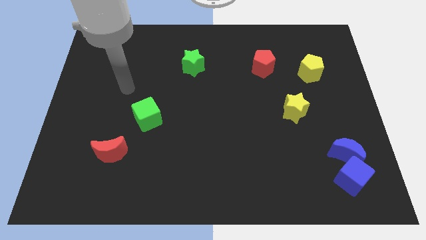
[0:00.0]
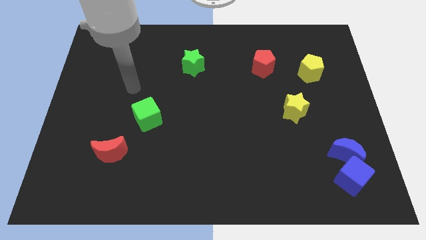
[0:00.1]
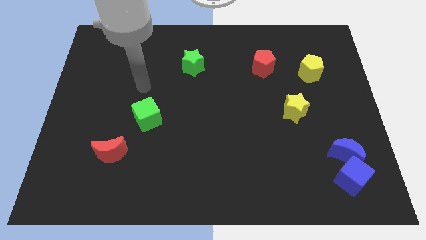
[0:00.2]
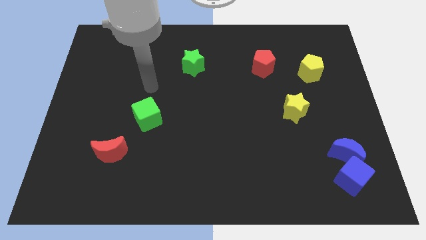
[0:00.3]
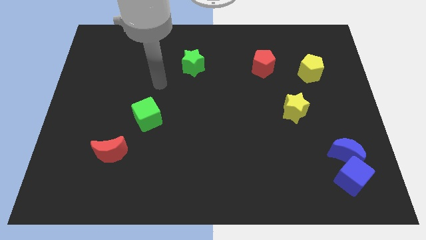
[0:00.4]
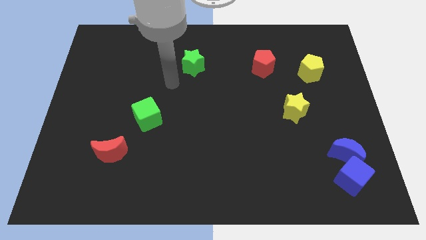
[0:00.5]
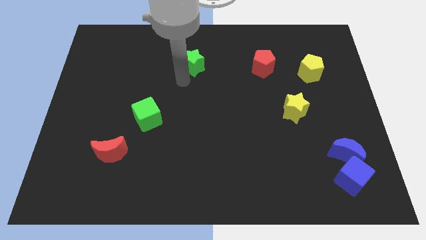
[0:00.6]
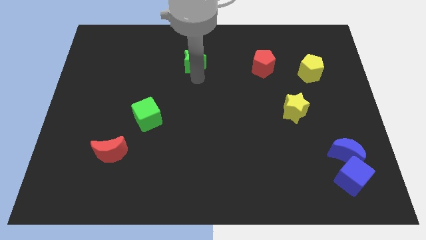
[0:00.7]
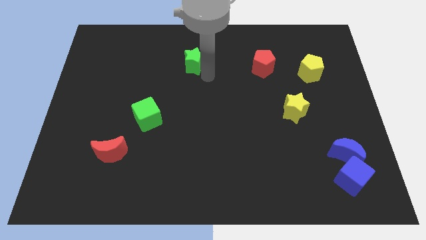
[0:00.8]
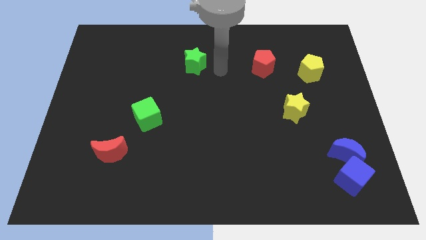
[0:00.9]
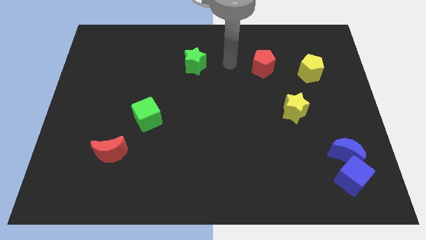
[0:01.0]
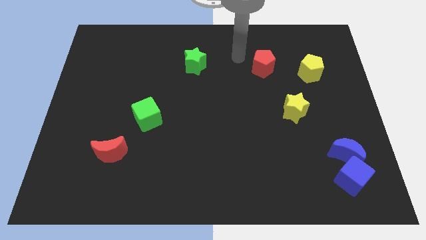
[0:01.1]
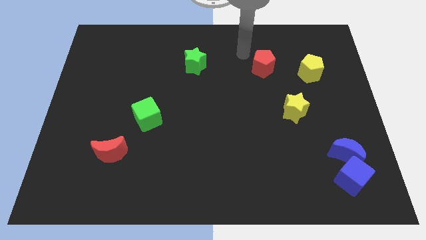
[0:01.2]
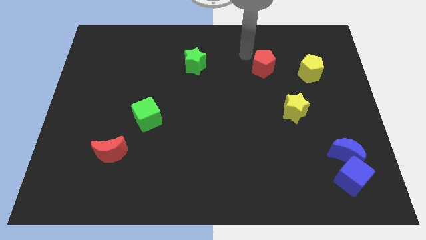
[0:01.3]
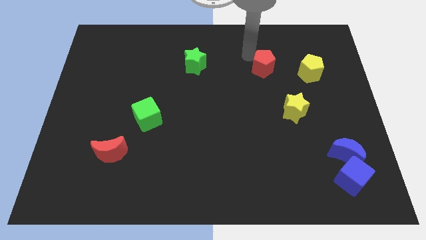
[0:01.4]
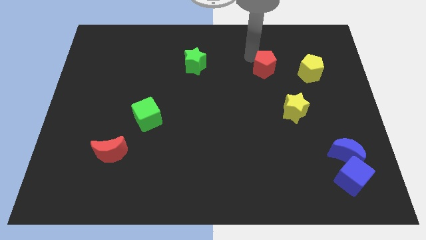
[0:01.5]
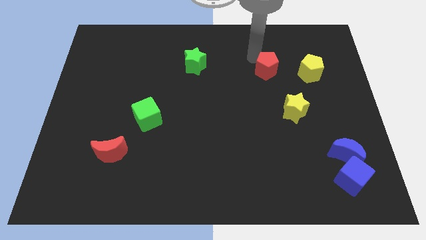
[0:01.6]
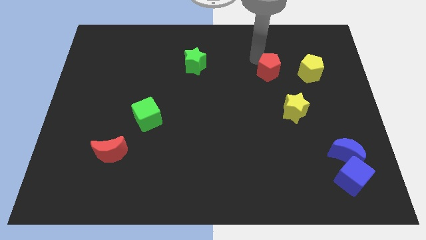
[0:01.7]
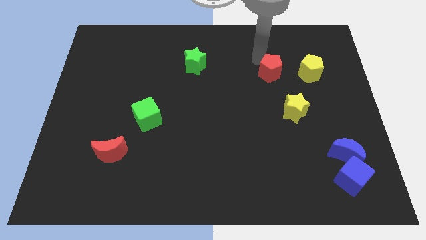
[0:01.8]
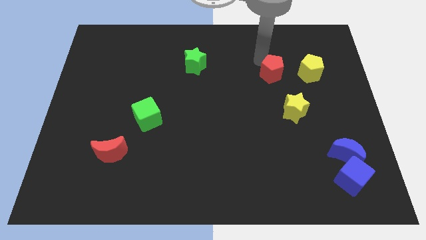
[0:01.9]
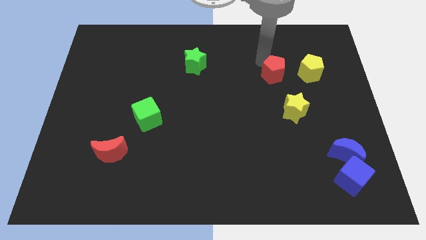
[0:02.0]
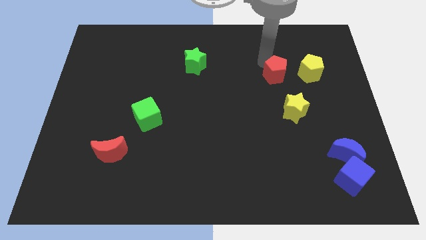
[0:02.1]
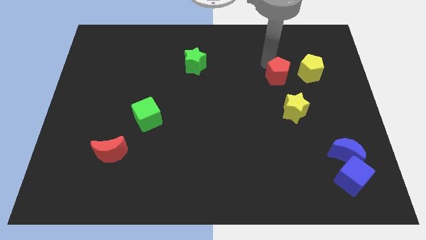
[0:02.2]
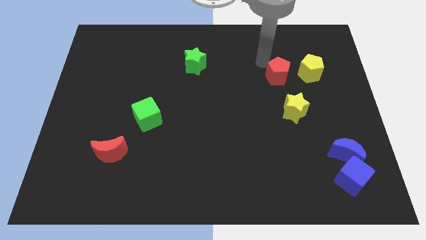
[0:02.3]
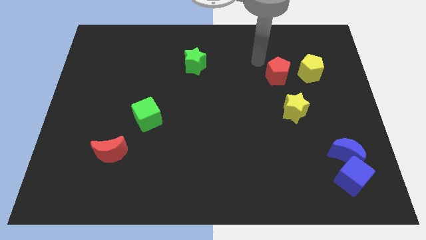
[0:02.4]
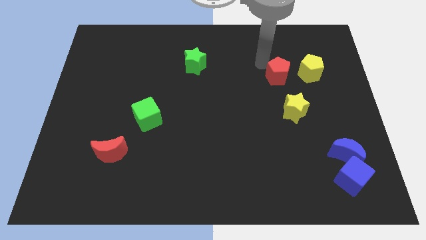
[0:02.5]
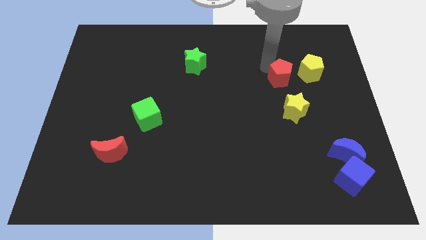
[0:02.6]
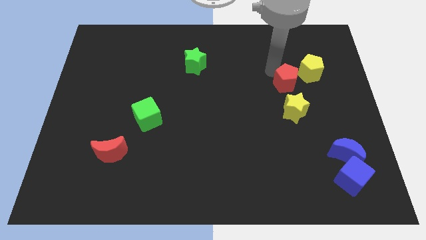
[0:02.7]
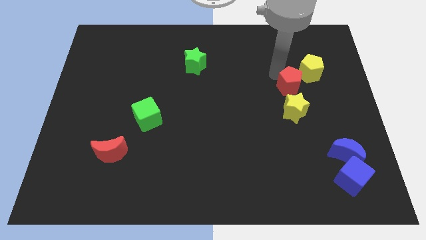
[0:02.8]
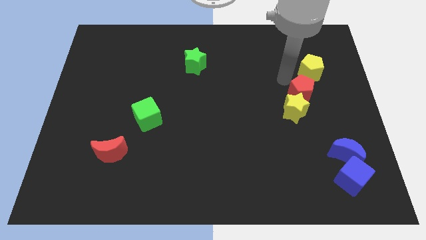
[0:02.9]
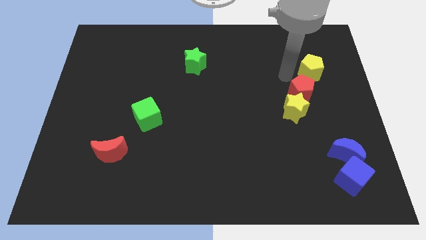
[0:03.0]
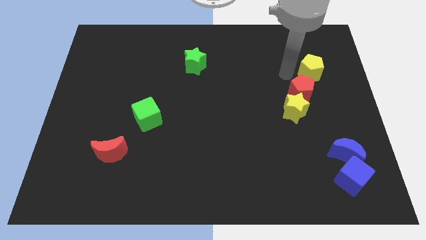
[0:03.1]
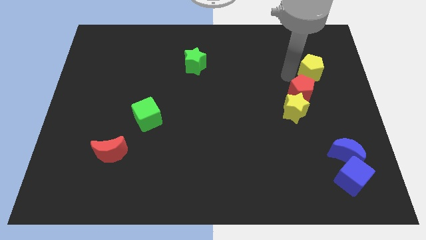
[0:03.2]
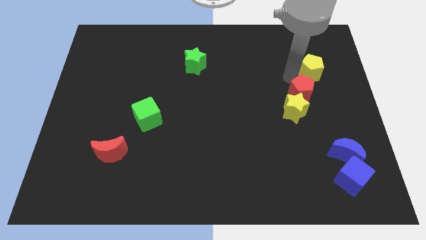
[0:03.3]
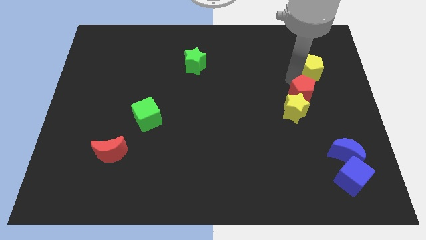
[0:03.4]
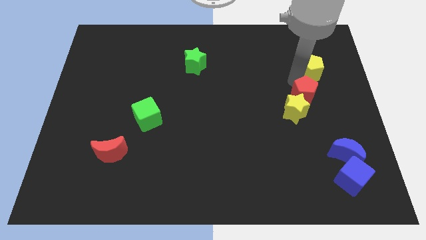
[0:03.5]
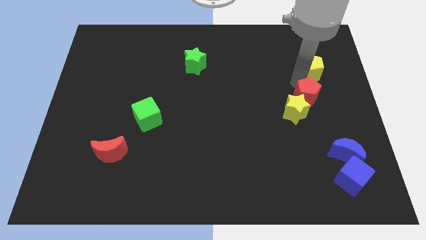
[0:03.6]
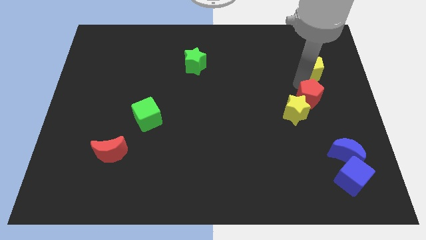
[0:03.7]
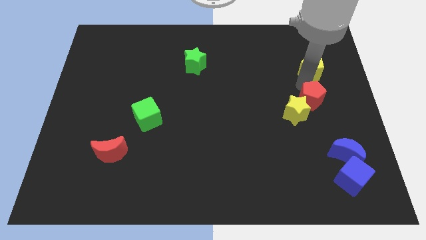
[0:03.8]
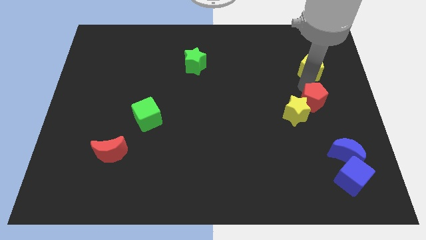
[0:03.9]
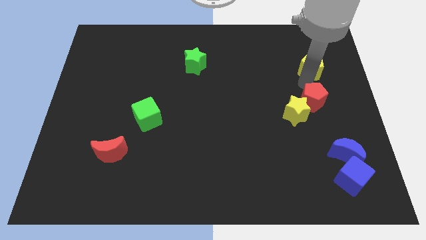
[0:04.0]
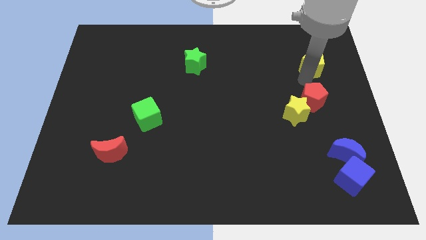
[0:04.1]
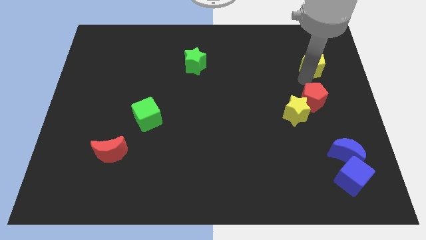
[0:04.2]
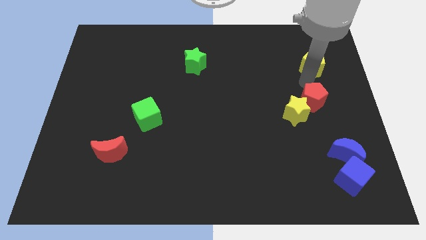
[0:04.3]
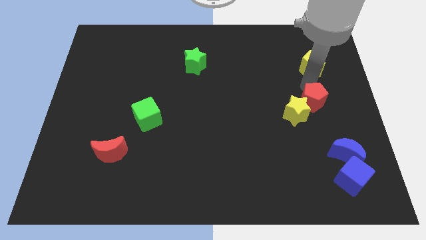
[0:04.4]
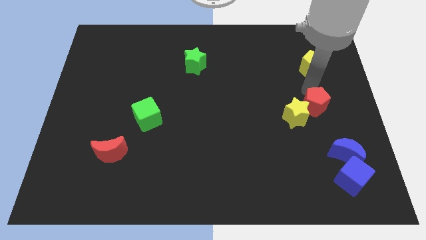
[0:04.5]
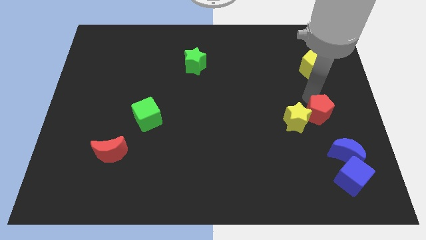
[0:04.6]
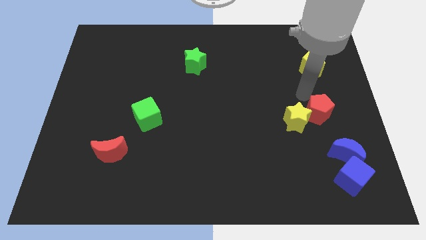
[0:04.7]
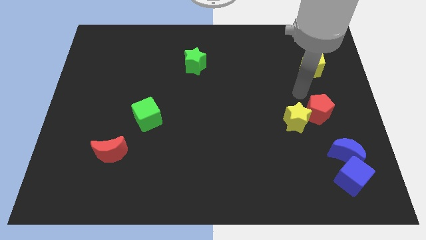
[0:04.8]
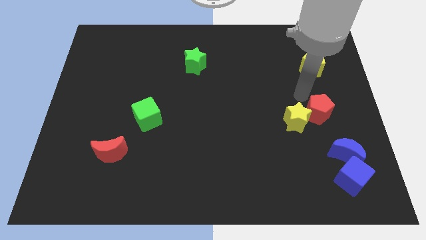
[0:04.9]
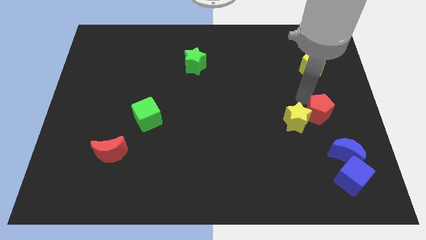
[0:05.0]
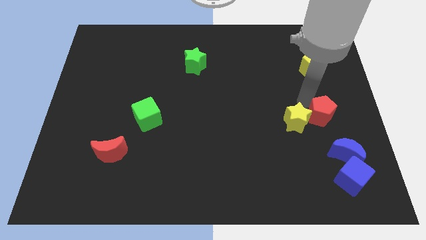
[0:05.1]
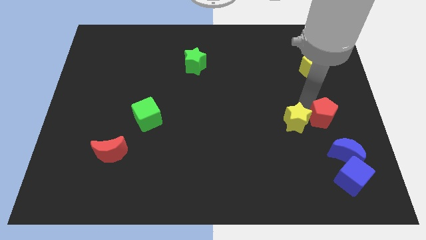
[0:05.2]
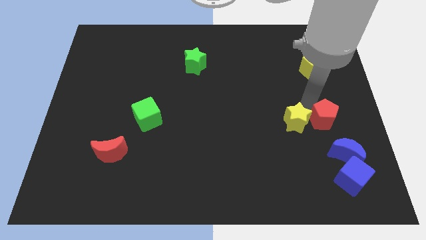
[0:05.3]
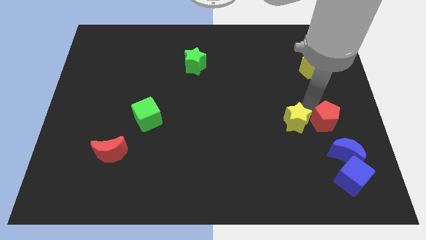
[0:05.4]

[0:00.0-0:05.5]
move the red pentagon to the top of the blue cube
